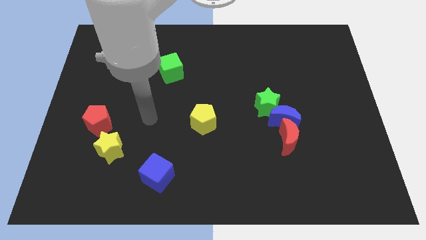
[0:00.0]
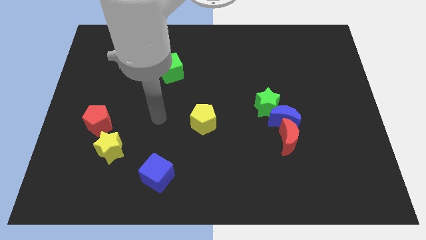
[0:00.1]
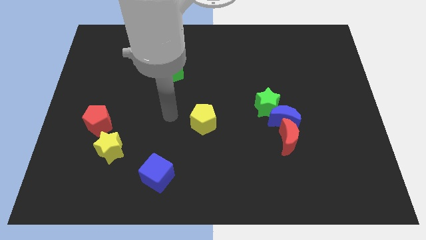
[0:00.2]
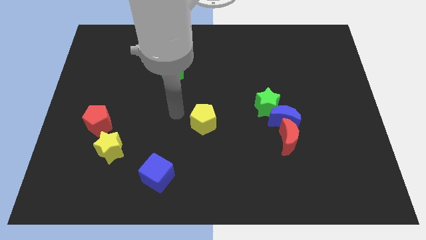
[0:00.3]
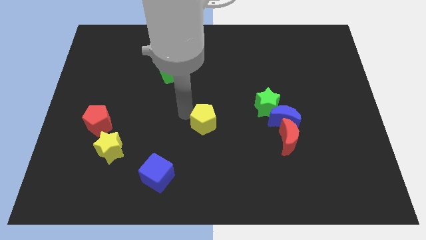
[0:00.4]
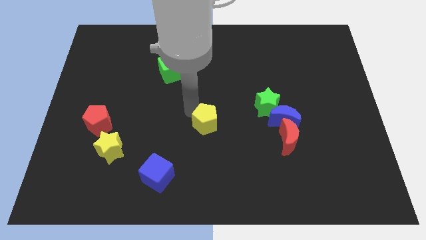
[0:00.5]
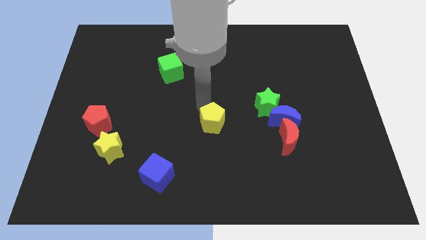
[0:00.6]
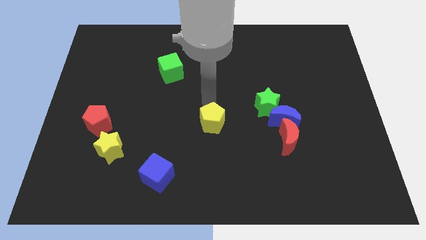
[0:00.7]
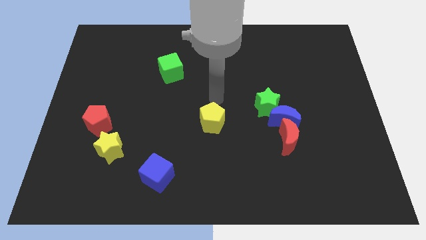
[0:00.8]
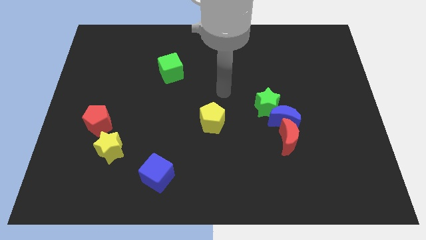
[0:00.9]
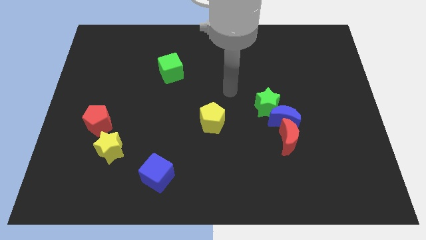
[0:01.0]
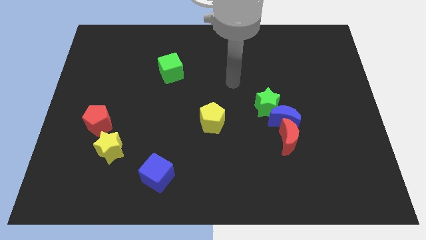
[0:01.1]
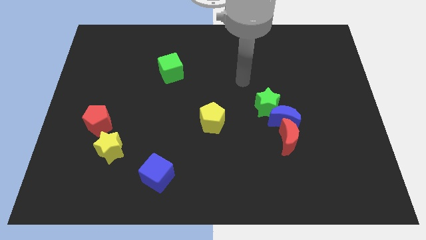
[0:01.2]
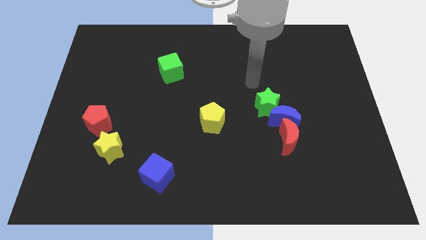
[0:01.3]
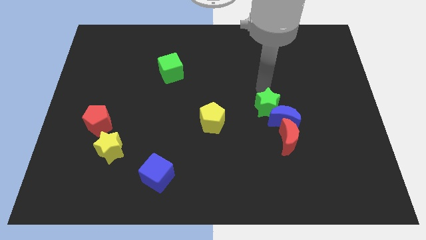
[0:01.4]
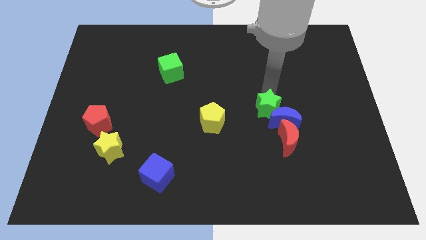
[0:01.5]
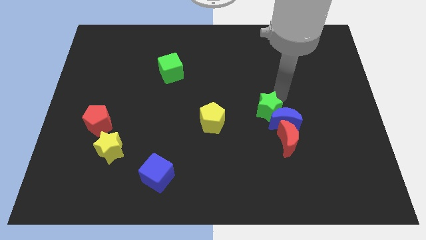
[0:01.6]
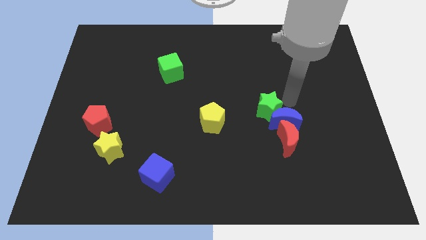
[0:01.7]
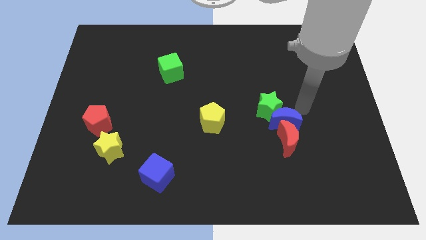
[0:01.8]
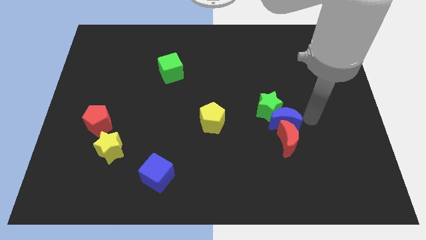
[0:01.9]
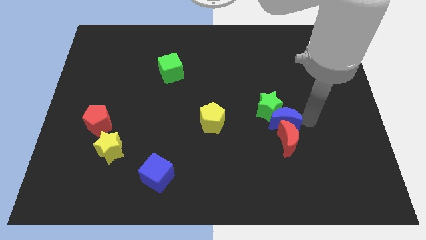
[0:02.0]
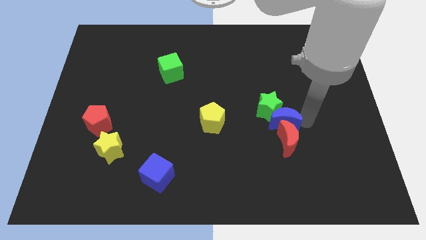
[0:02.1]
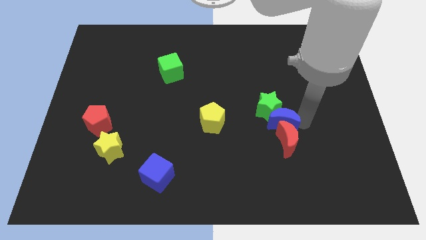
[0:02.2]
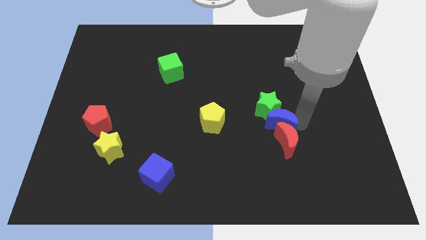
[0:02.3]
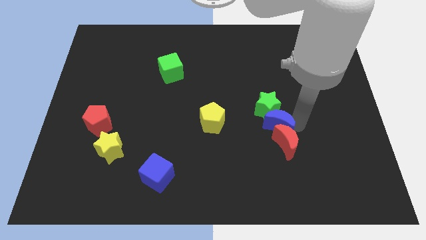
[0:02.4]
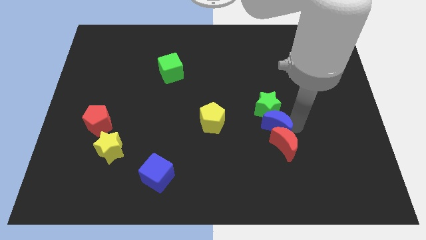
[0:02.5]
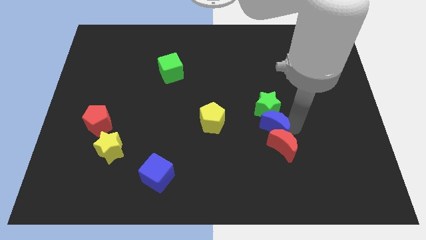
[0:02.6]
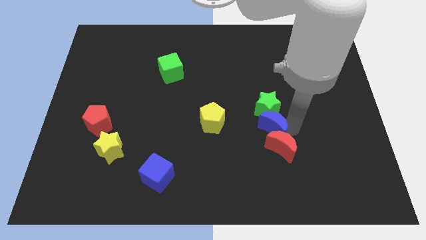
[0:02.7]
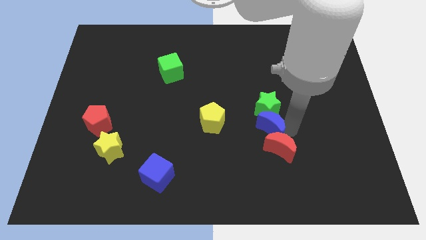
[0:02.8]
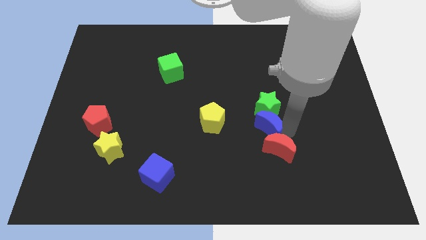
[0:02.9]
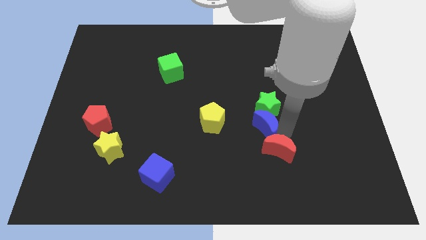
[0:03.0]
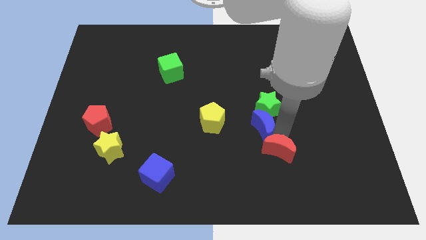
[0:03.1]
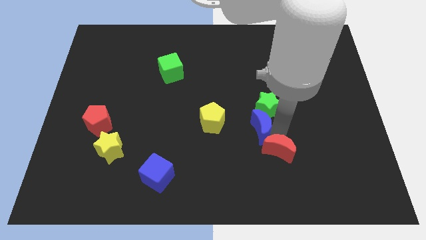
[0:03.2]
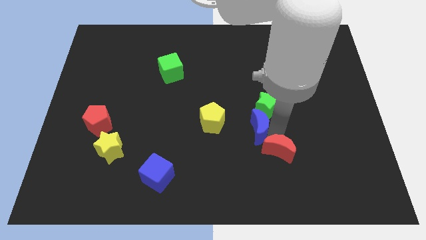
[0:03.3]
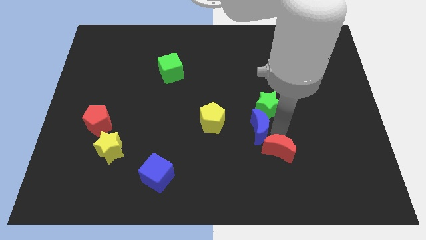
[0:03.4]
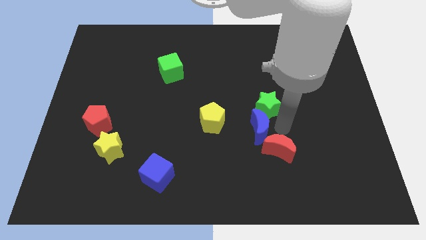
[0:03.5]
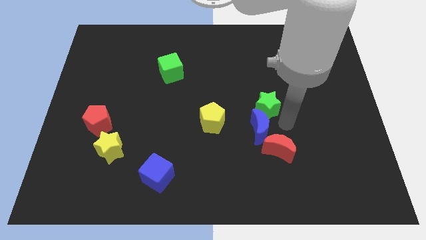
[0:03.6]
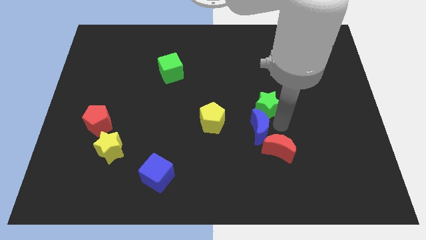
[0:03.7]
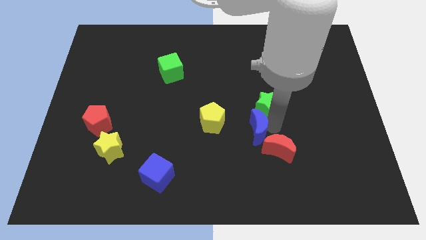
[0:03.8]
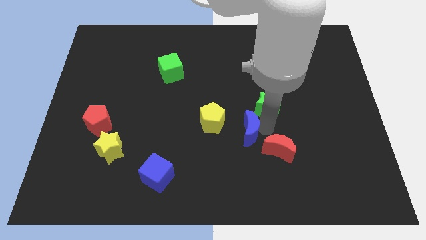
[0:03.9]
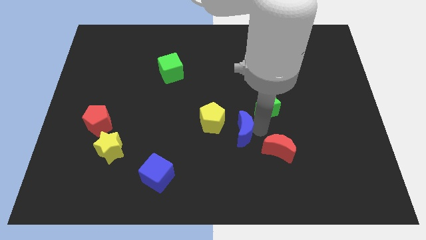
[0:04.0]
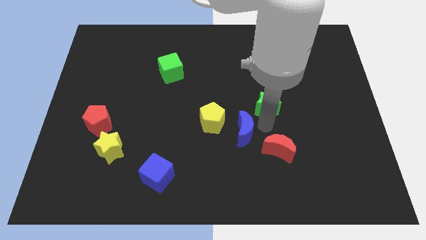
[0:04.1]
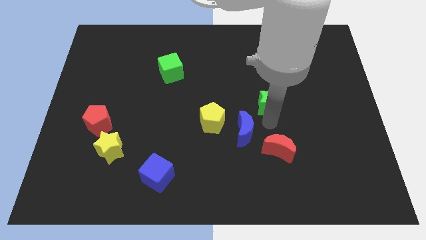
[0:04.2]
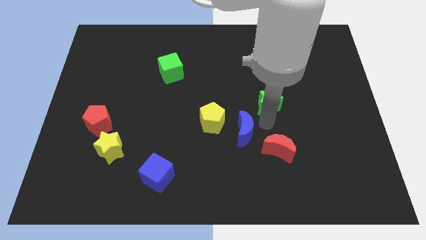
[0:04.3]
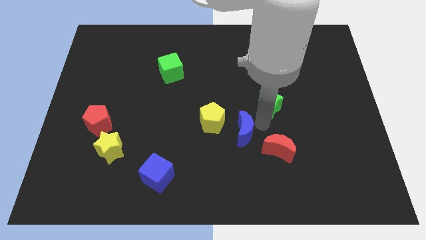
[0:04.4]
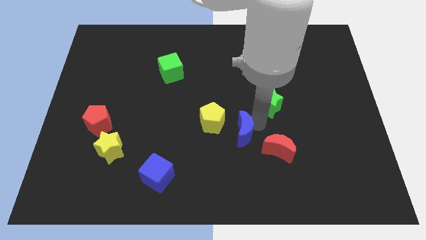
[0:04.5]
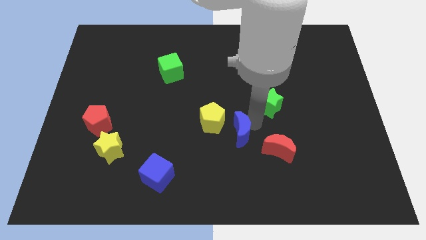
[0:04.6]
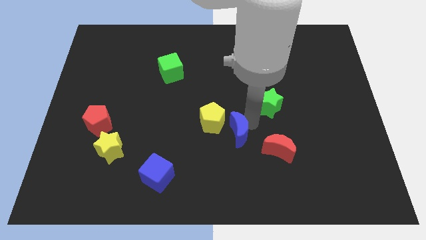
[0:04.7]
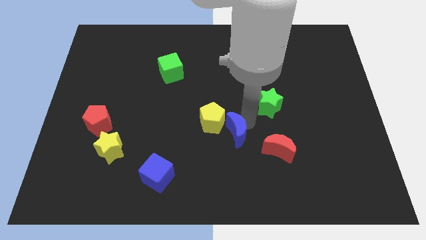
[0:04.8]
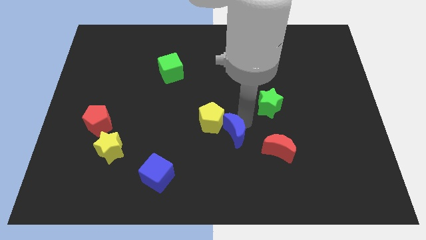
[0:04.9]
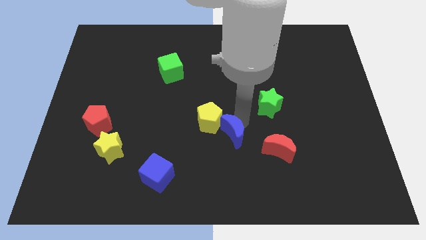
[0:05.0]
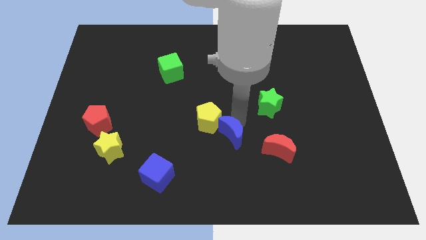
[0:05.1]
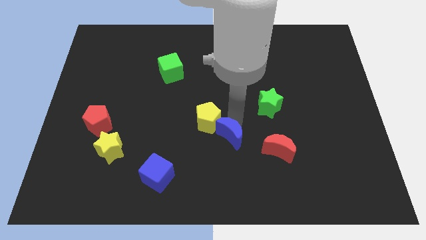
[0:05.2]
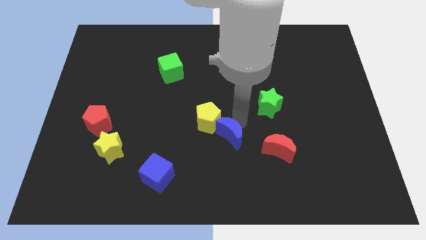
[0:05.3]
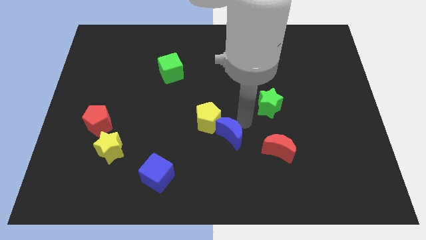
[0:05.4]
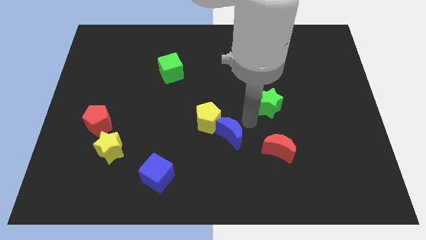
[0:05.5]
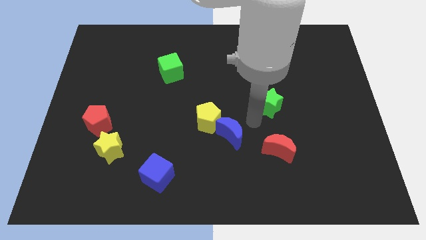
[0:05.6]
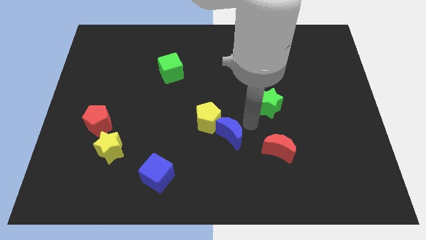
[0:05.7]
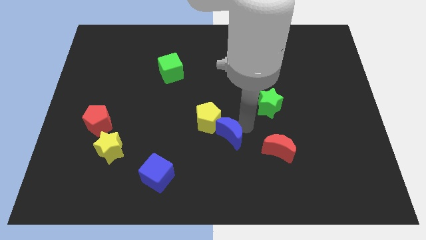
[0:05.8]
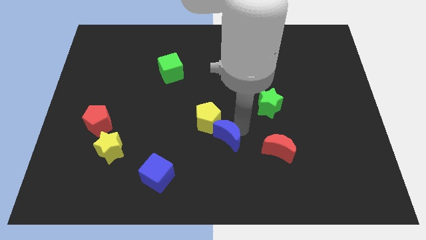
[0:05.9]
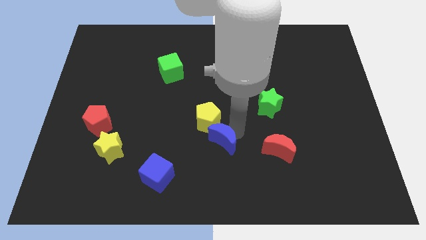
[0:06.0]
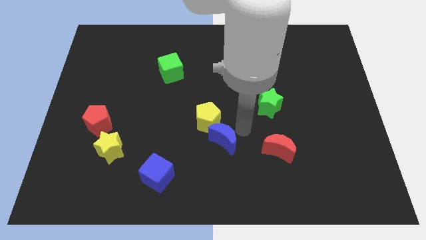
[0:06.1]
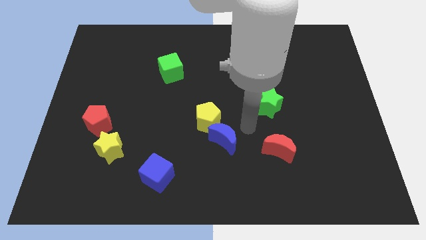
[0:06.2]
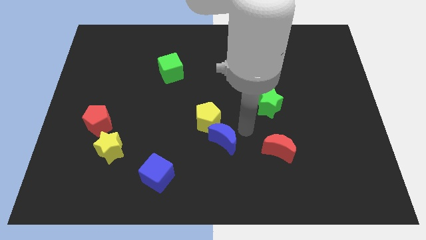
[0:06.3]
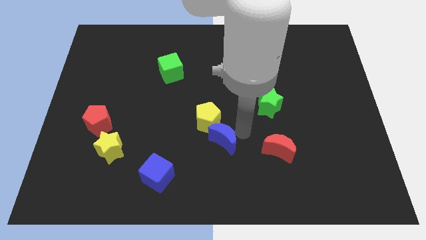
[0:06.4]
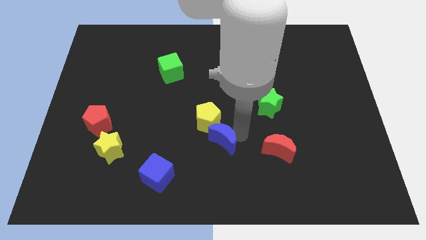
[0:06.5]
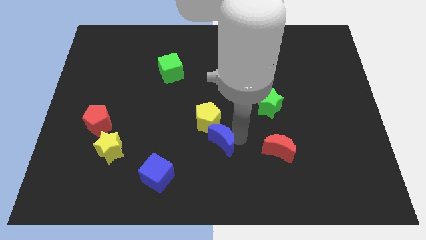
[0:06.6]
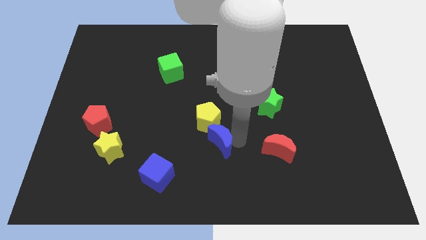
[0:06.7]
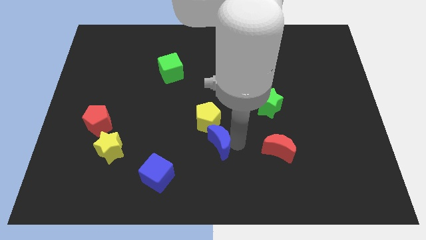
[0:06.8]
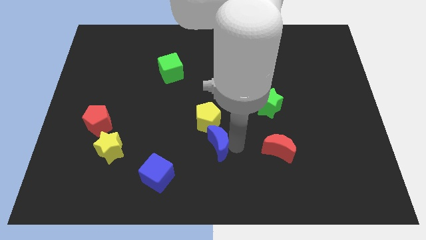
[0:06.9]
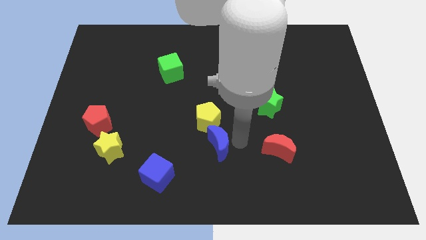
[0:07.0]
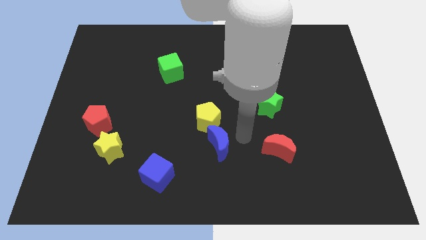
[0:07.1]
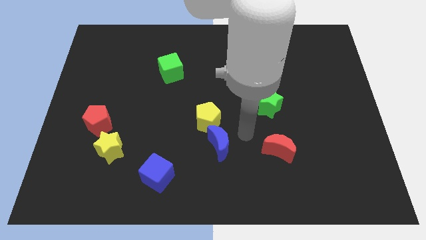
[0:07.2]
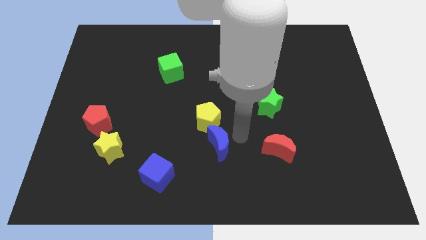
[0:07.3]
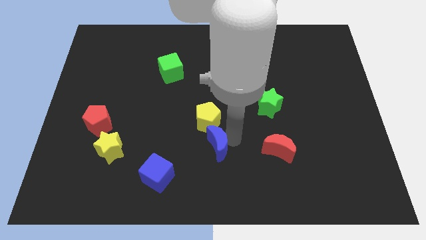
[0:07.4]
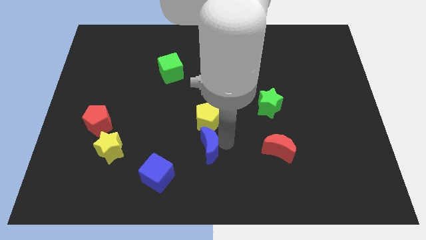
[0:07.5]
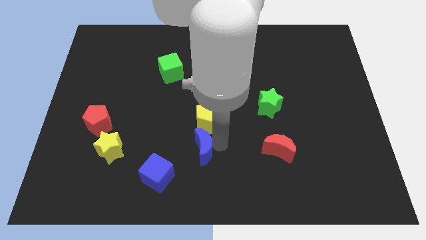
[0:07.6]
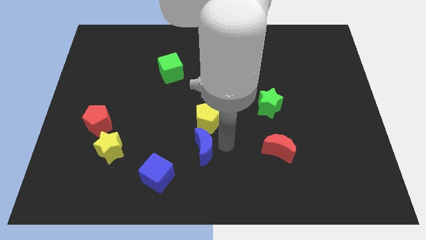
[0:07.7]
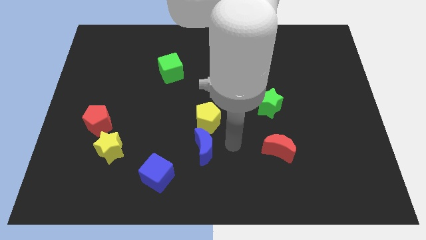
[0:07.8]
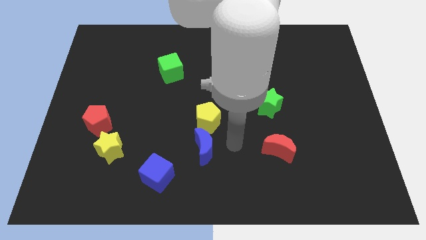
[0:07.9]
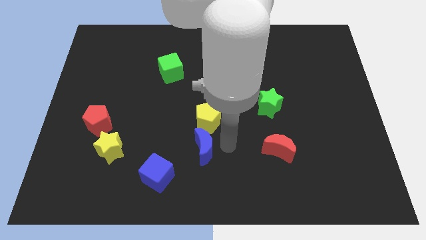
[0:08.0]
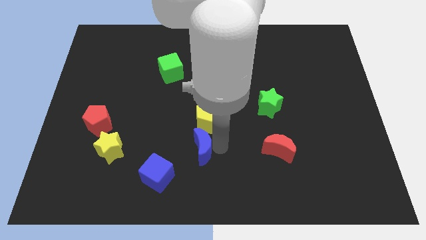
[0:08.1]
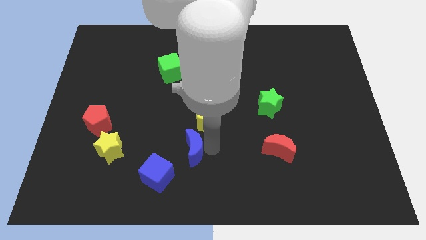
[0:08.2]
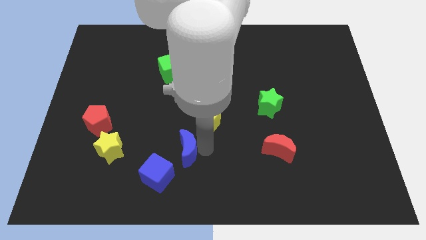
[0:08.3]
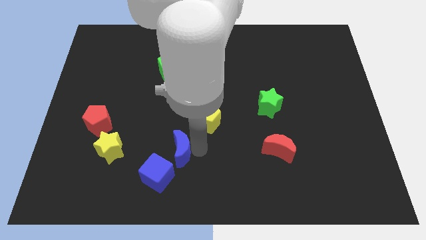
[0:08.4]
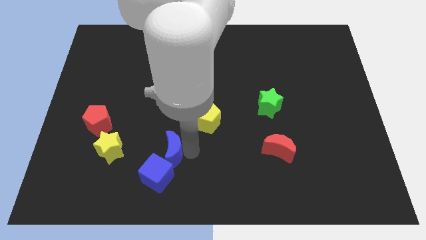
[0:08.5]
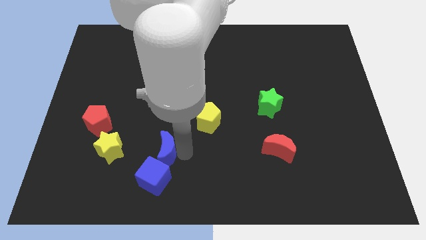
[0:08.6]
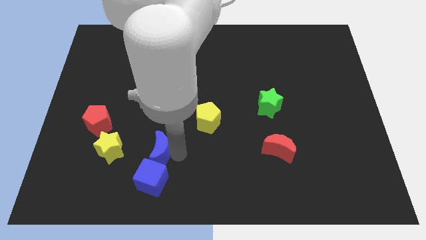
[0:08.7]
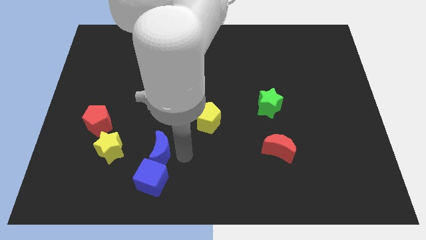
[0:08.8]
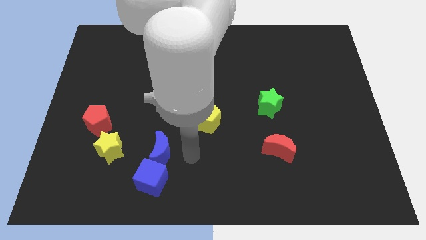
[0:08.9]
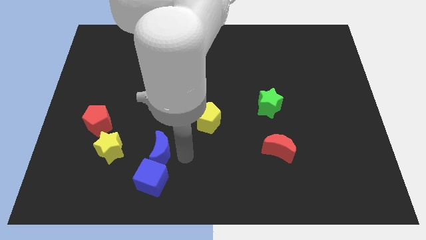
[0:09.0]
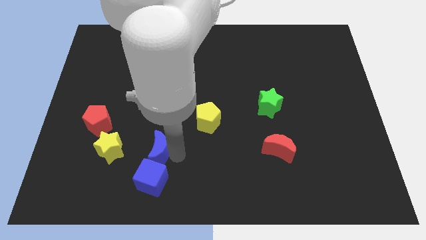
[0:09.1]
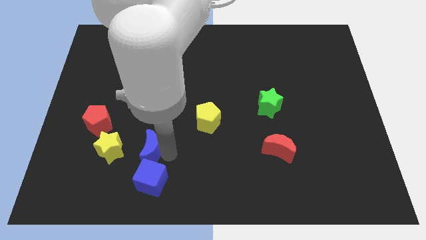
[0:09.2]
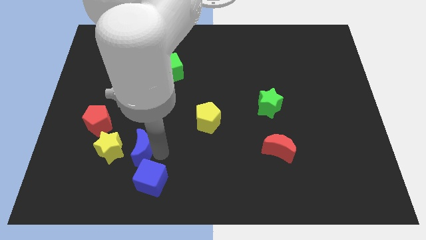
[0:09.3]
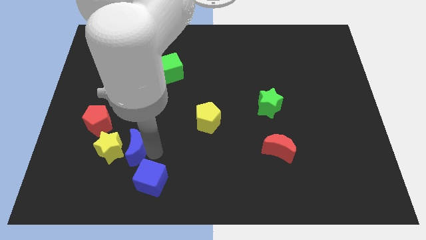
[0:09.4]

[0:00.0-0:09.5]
slide the blue moon towards the yellow star
